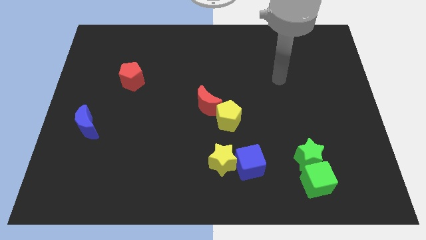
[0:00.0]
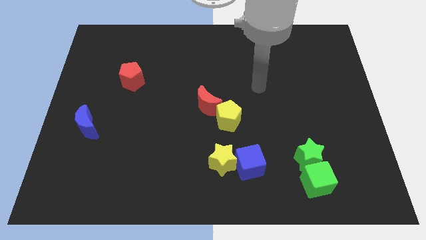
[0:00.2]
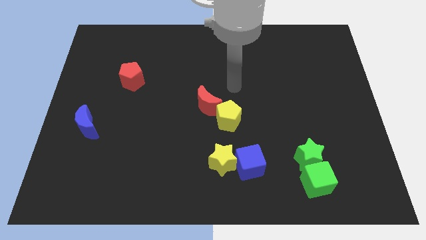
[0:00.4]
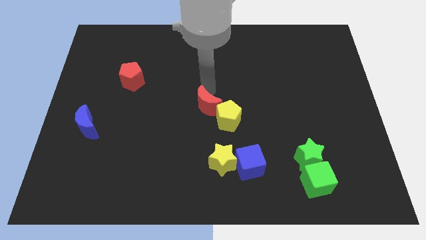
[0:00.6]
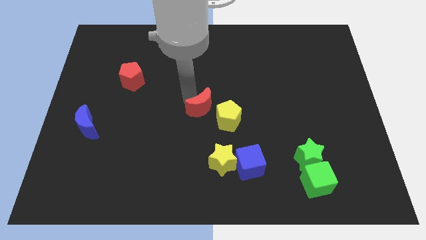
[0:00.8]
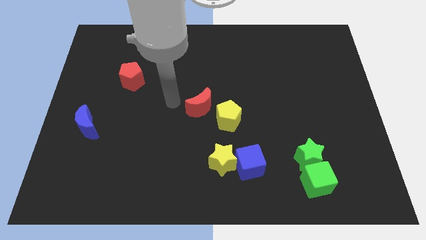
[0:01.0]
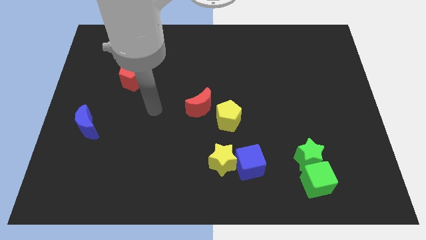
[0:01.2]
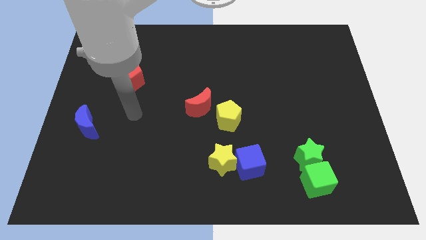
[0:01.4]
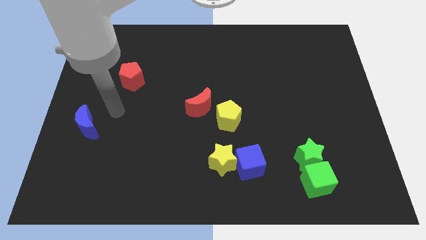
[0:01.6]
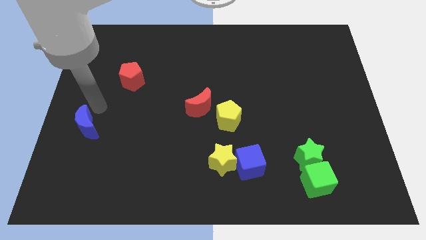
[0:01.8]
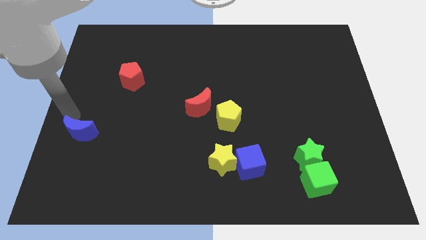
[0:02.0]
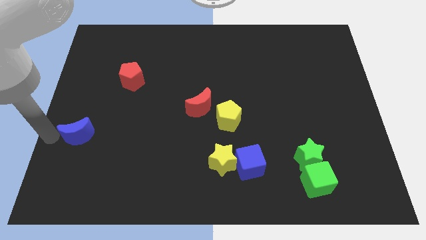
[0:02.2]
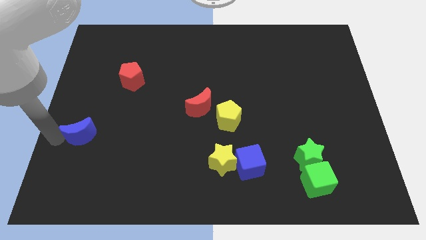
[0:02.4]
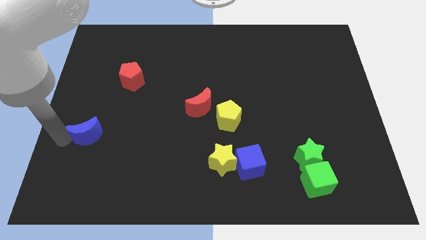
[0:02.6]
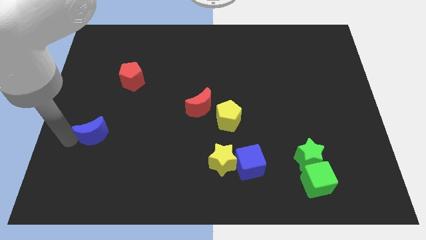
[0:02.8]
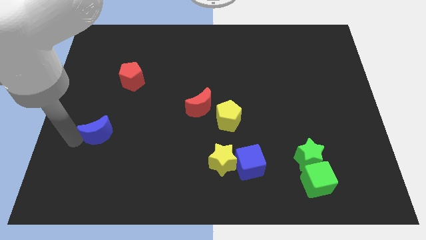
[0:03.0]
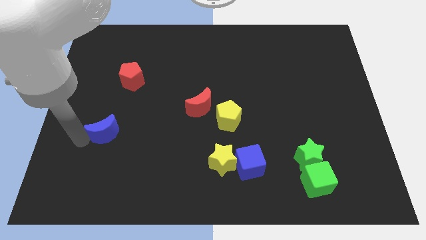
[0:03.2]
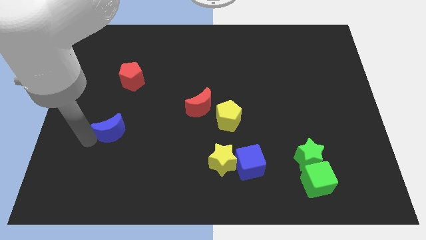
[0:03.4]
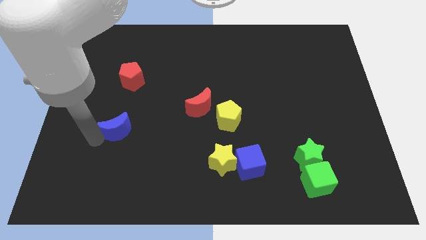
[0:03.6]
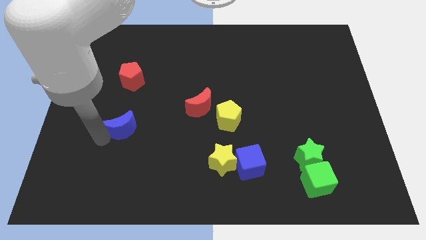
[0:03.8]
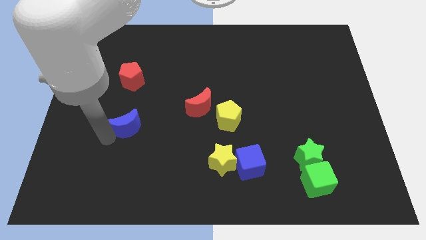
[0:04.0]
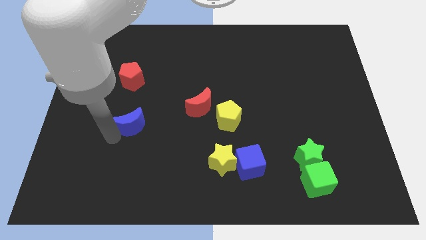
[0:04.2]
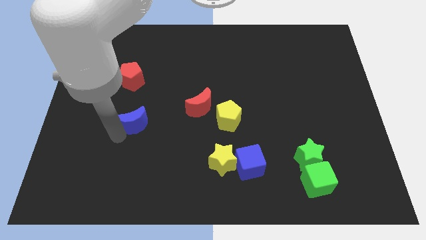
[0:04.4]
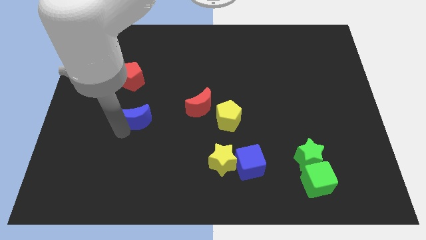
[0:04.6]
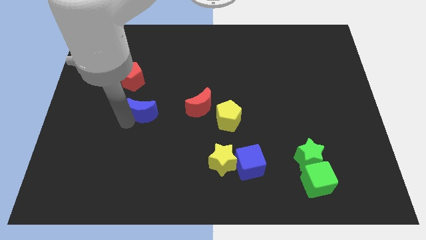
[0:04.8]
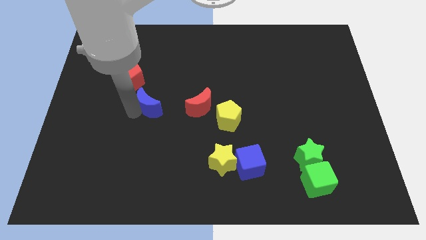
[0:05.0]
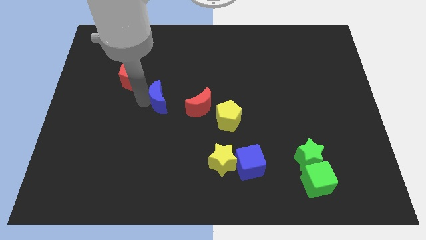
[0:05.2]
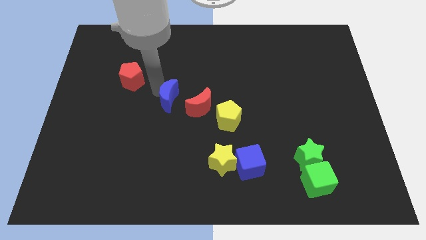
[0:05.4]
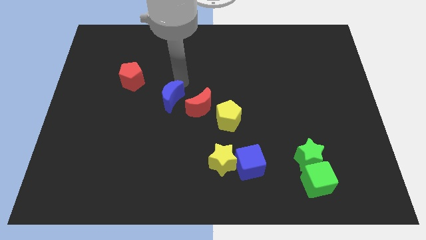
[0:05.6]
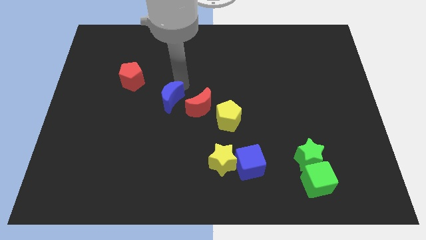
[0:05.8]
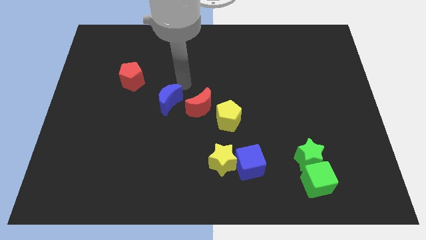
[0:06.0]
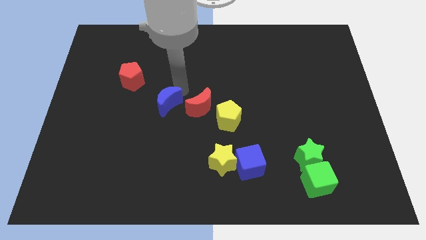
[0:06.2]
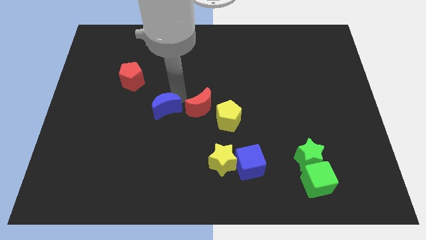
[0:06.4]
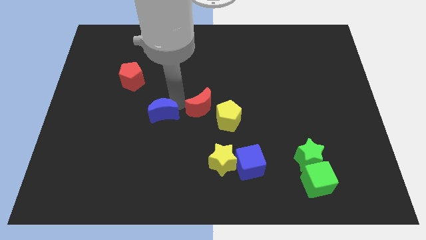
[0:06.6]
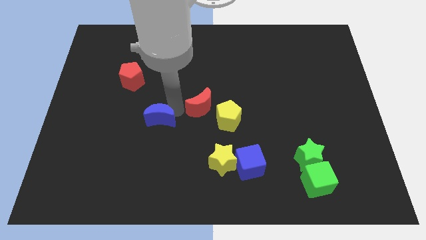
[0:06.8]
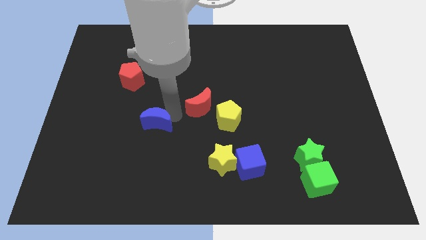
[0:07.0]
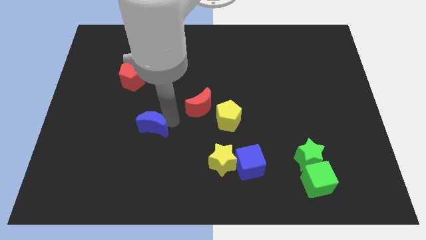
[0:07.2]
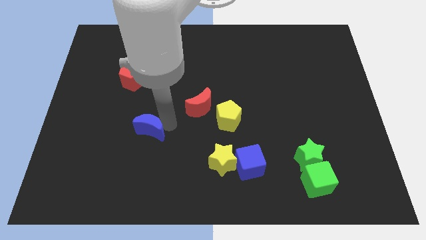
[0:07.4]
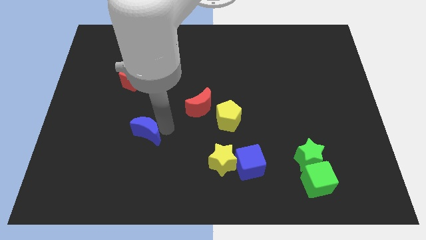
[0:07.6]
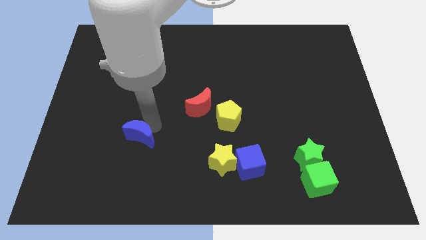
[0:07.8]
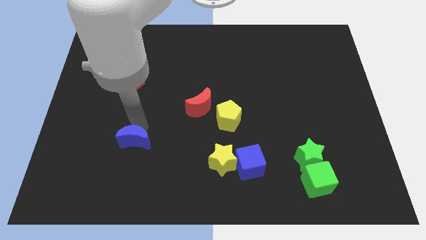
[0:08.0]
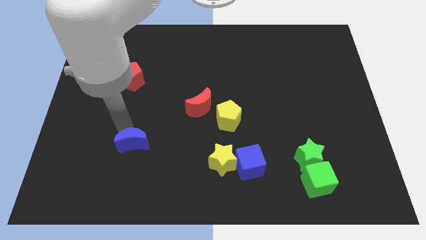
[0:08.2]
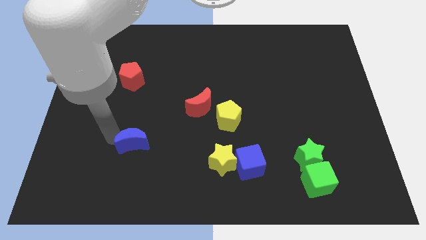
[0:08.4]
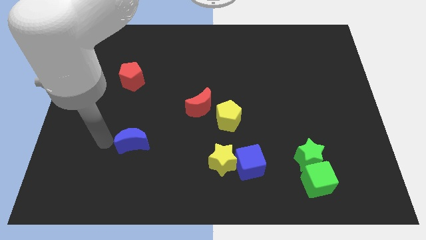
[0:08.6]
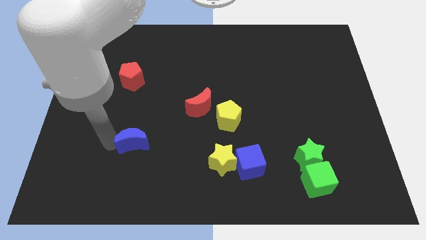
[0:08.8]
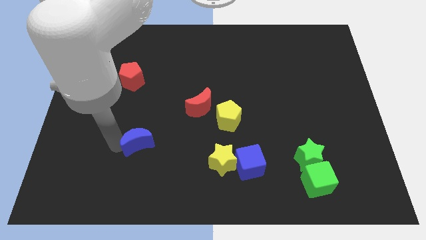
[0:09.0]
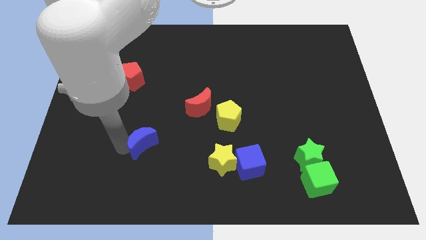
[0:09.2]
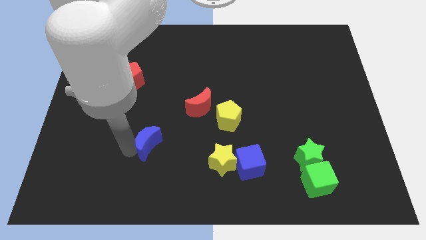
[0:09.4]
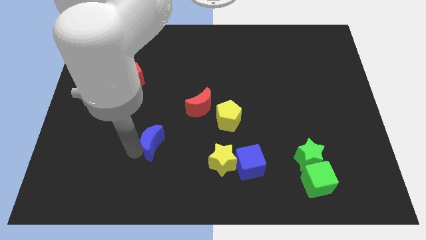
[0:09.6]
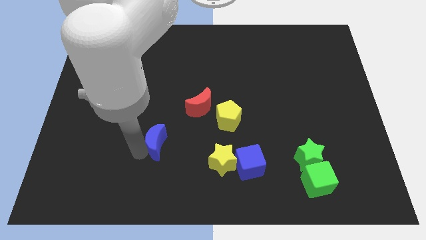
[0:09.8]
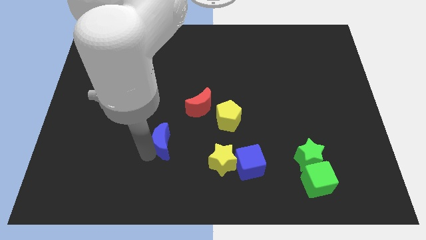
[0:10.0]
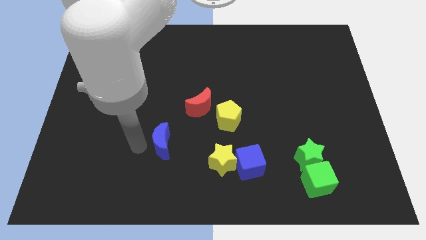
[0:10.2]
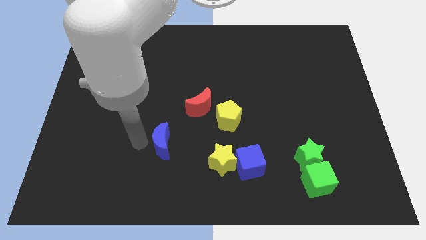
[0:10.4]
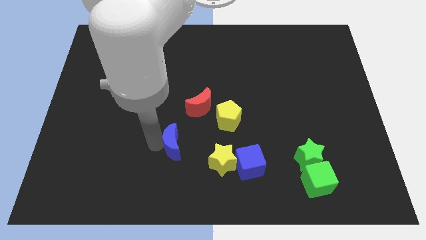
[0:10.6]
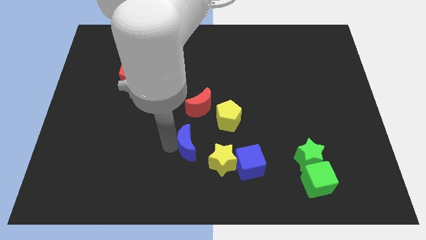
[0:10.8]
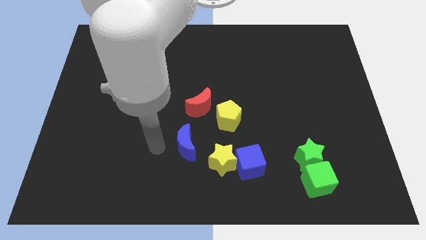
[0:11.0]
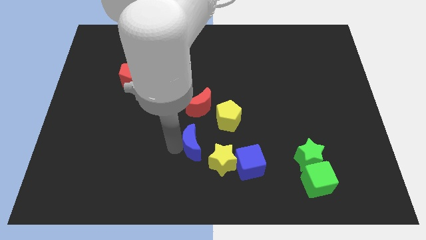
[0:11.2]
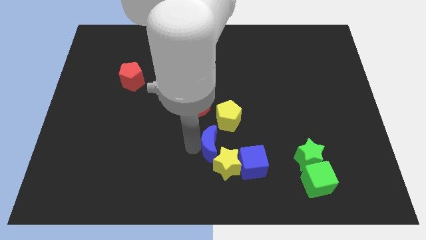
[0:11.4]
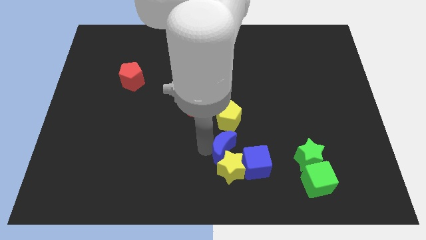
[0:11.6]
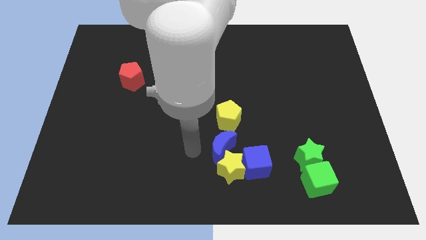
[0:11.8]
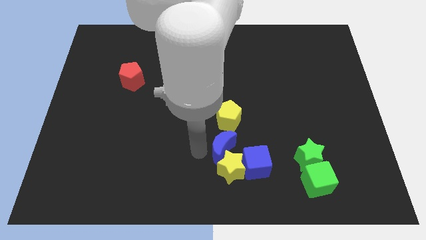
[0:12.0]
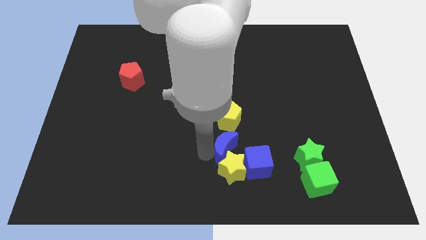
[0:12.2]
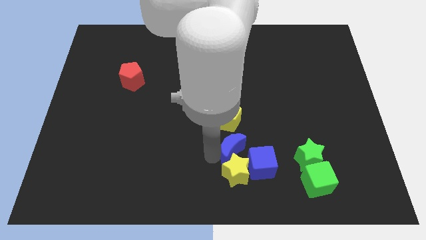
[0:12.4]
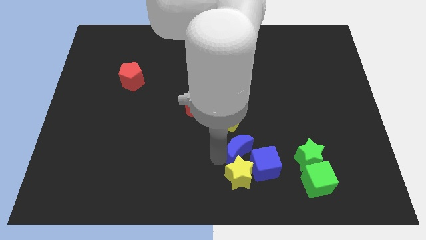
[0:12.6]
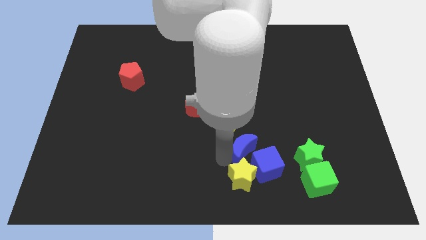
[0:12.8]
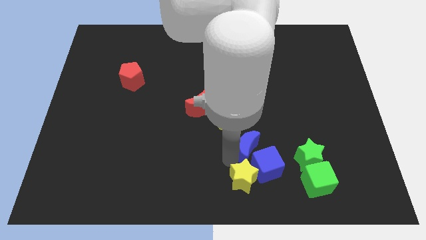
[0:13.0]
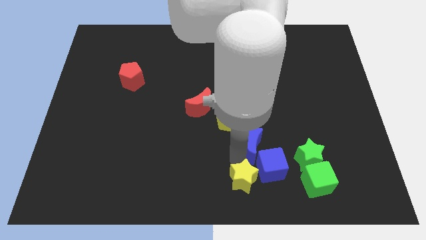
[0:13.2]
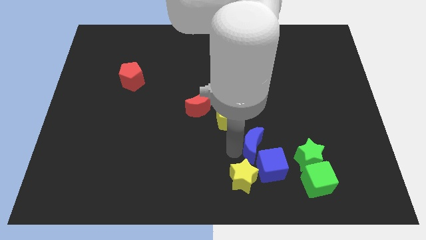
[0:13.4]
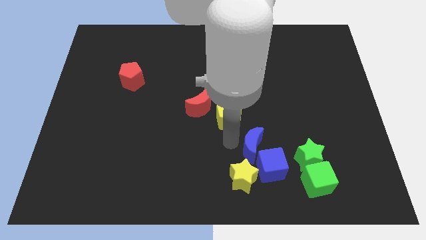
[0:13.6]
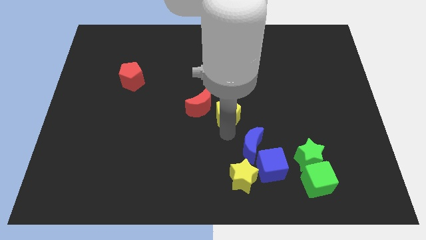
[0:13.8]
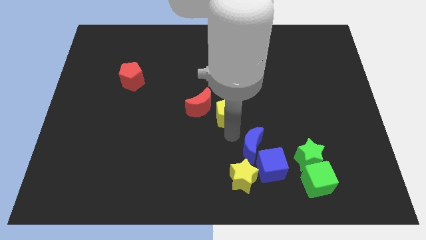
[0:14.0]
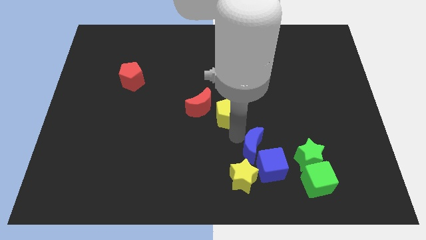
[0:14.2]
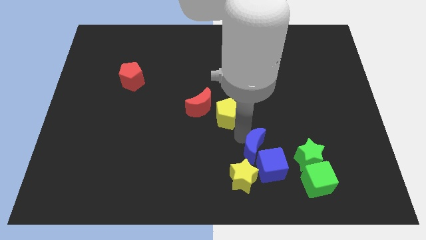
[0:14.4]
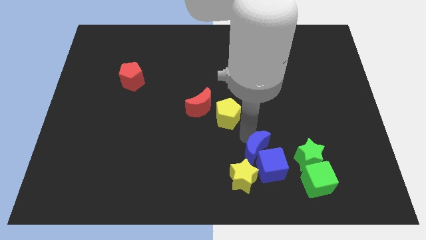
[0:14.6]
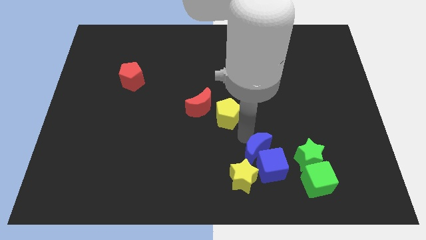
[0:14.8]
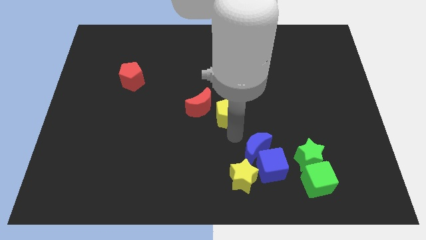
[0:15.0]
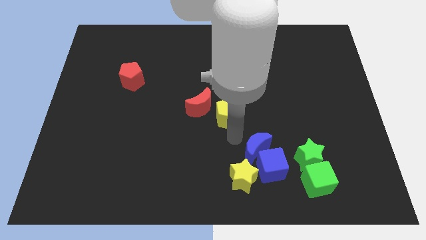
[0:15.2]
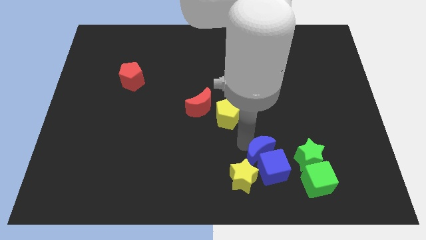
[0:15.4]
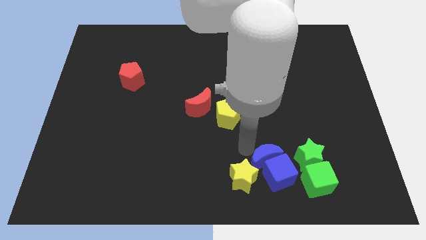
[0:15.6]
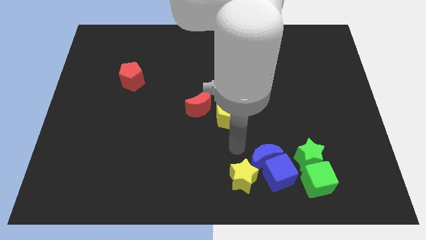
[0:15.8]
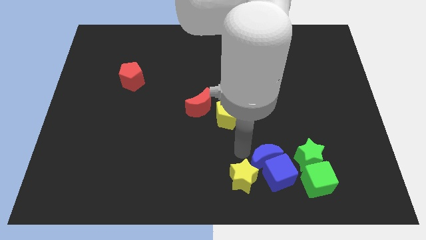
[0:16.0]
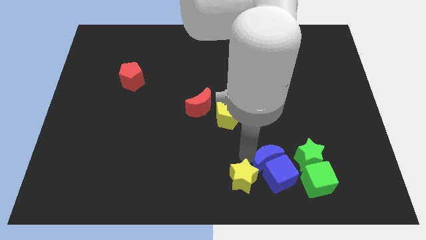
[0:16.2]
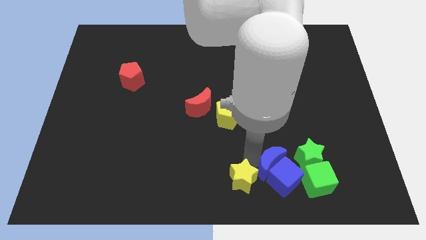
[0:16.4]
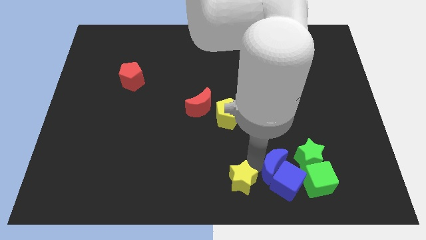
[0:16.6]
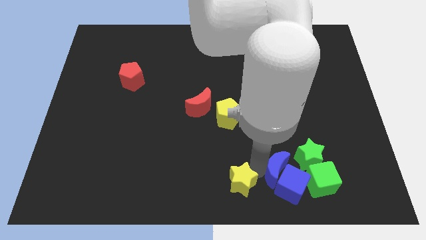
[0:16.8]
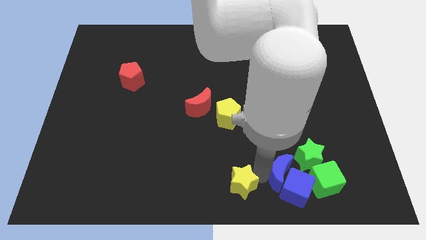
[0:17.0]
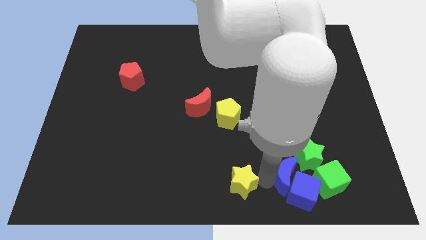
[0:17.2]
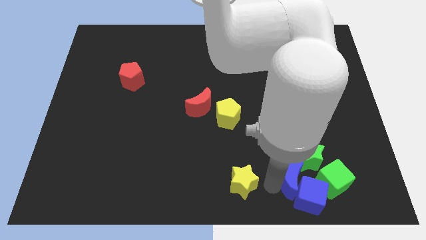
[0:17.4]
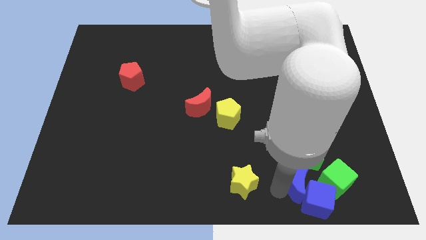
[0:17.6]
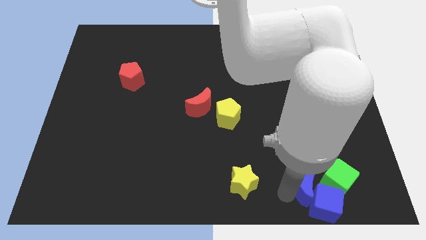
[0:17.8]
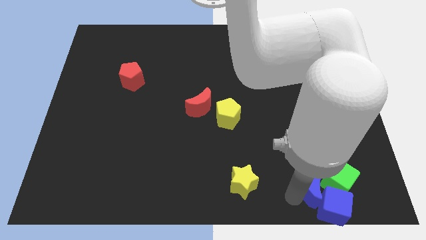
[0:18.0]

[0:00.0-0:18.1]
push the blue moon close to the green cube
